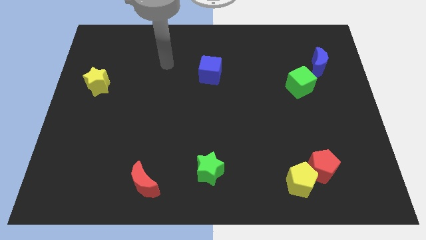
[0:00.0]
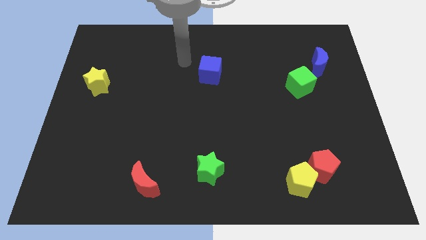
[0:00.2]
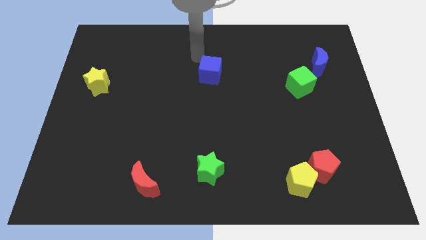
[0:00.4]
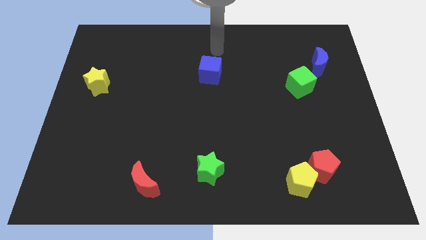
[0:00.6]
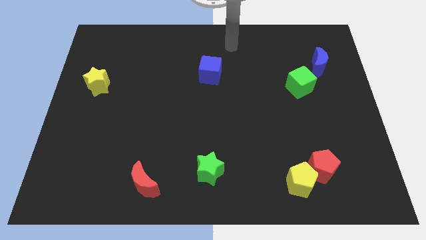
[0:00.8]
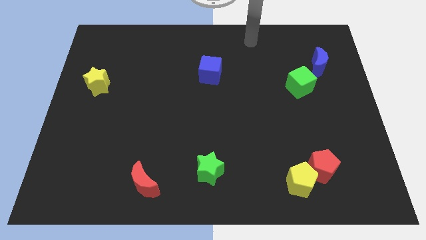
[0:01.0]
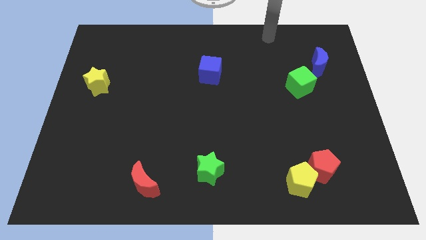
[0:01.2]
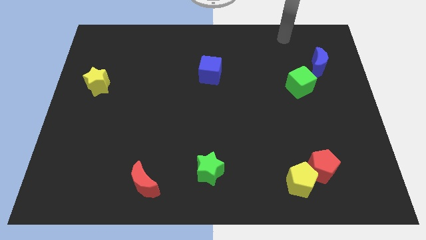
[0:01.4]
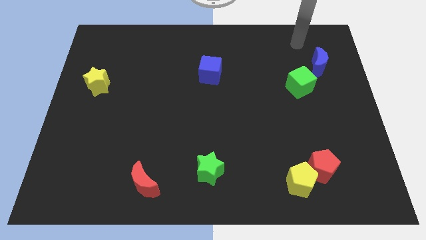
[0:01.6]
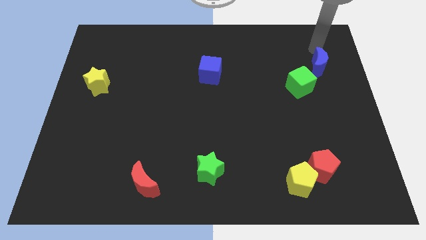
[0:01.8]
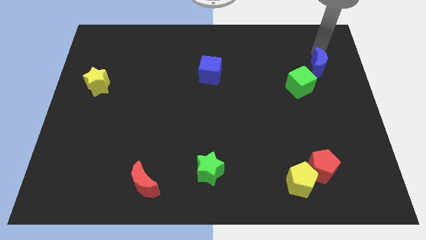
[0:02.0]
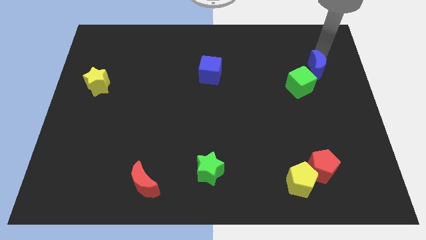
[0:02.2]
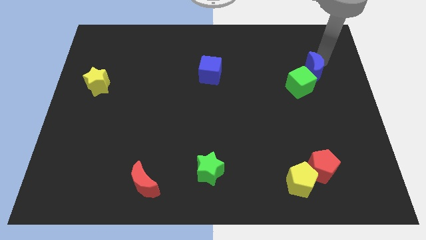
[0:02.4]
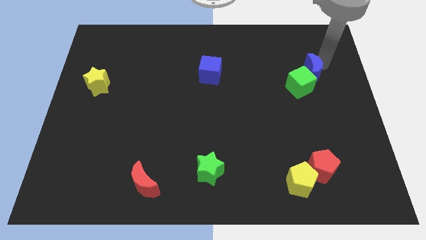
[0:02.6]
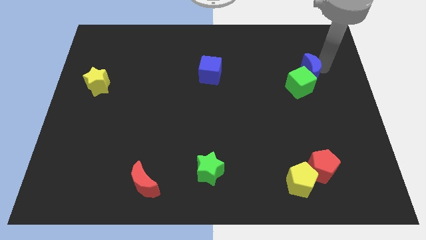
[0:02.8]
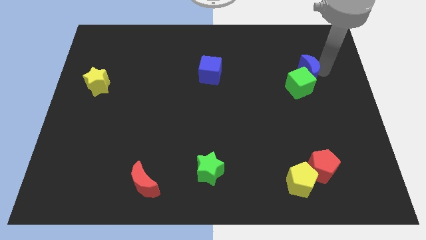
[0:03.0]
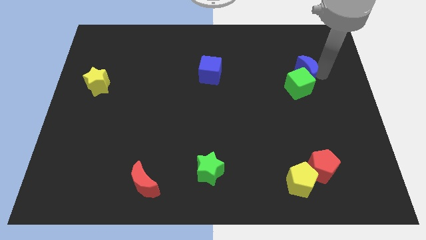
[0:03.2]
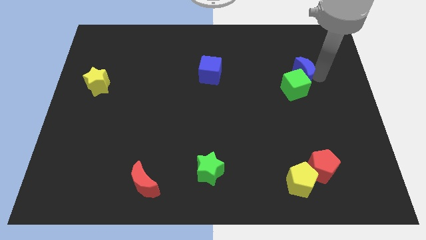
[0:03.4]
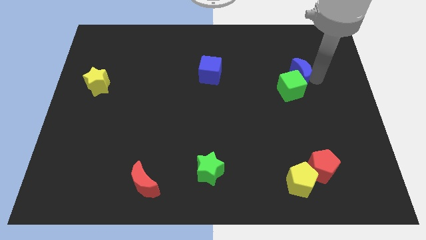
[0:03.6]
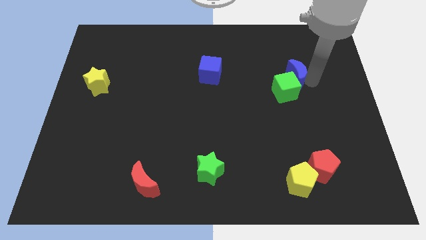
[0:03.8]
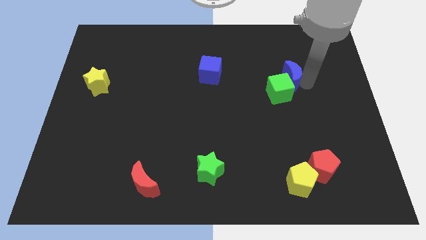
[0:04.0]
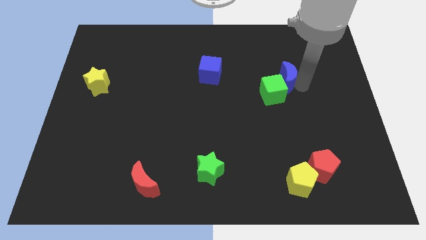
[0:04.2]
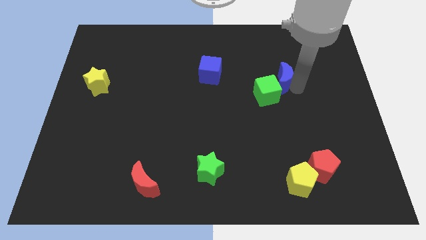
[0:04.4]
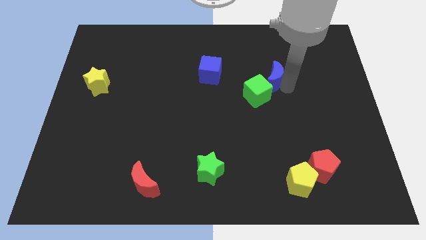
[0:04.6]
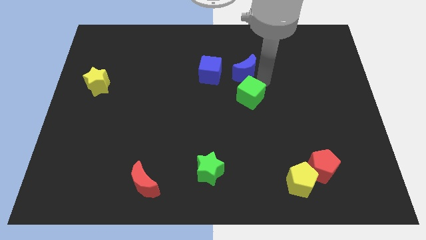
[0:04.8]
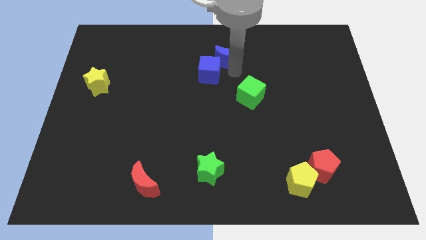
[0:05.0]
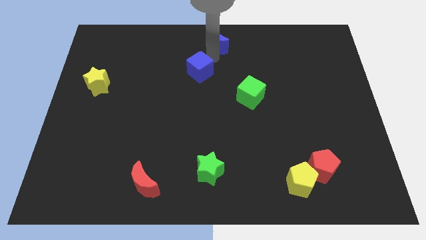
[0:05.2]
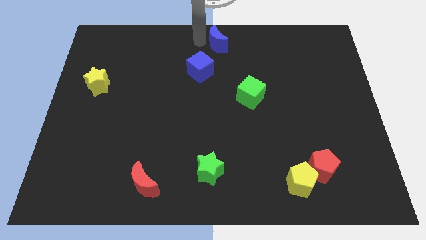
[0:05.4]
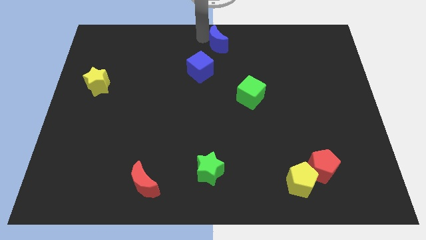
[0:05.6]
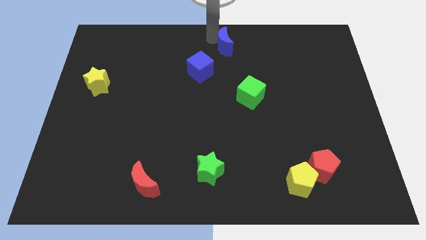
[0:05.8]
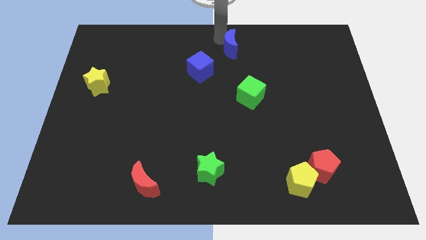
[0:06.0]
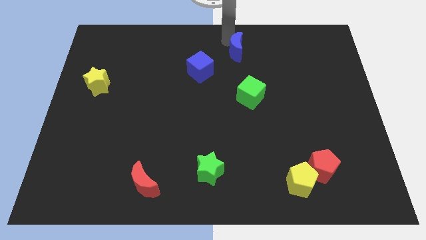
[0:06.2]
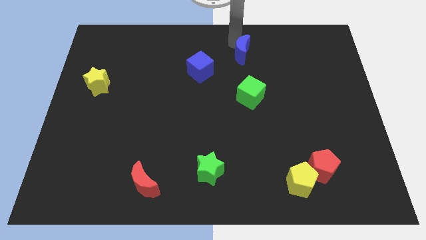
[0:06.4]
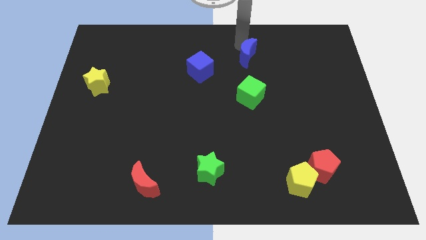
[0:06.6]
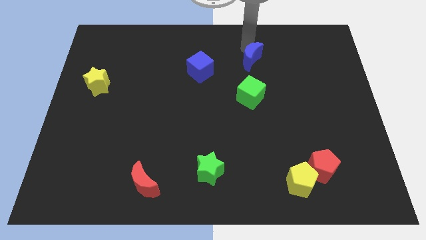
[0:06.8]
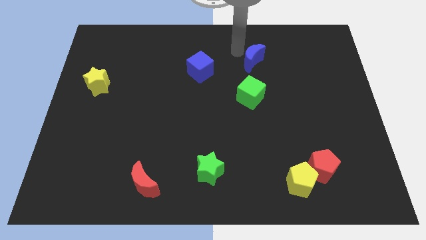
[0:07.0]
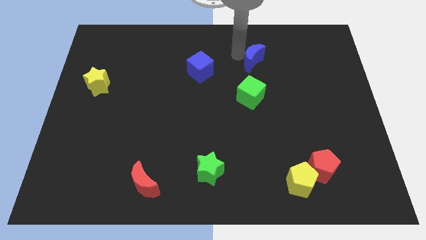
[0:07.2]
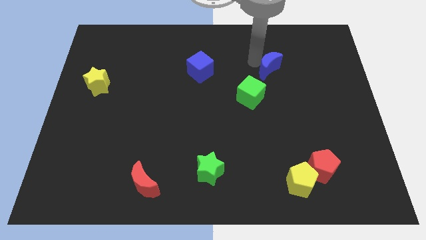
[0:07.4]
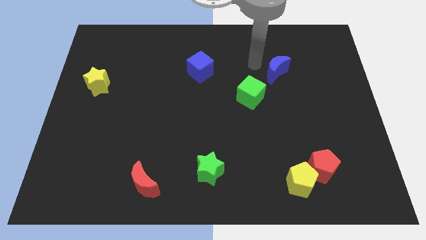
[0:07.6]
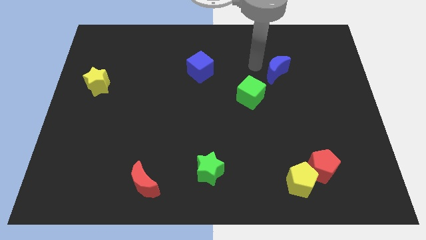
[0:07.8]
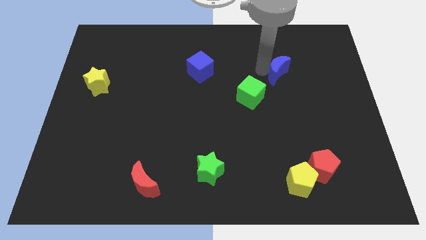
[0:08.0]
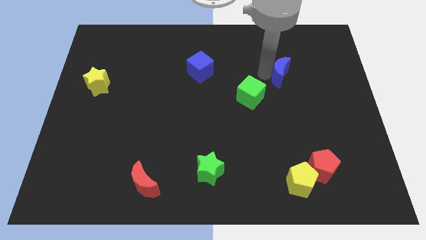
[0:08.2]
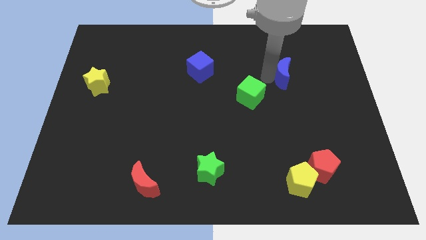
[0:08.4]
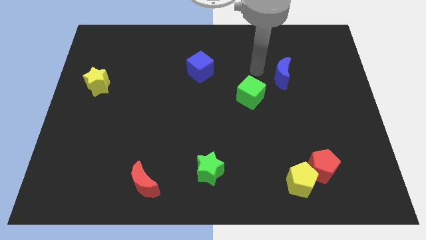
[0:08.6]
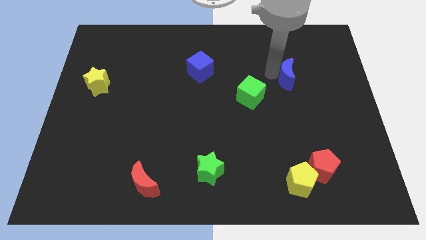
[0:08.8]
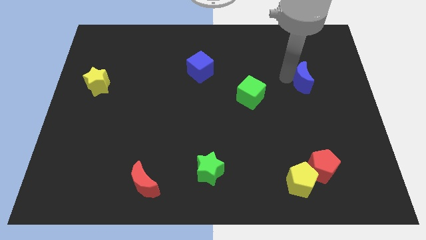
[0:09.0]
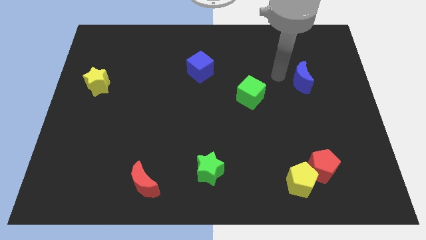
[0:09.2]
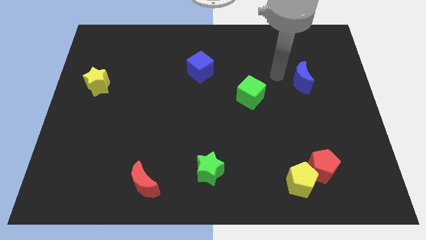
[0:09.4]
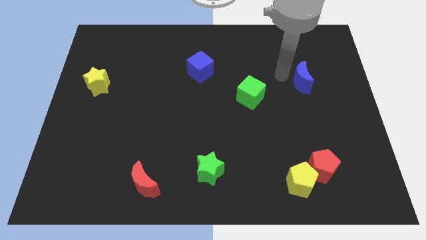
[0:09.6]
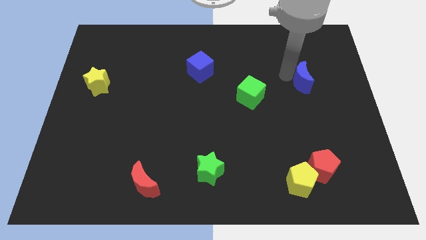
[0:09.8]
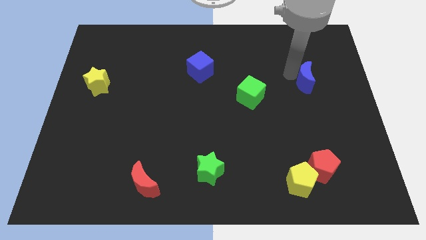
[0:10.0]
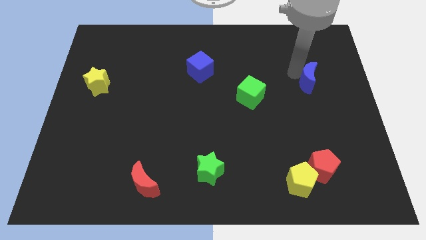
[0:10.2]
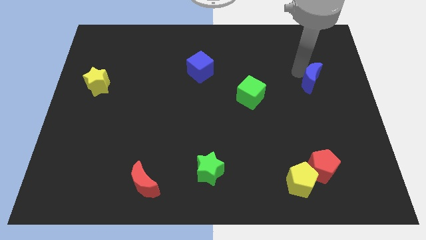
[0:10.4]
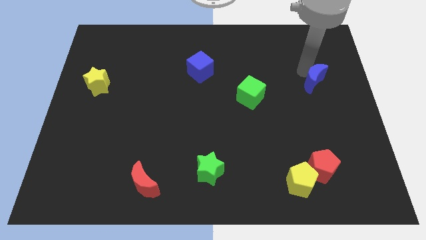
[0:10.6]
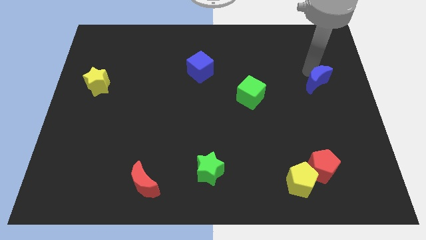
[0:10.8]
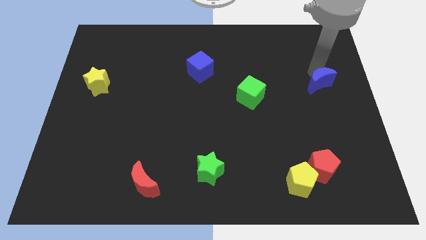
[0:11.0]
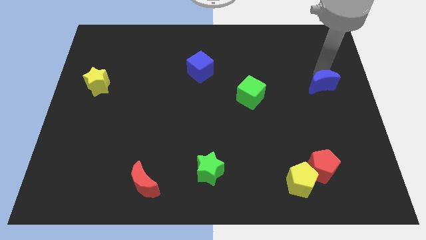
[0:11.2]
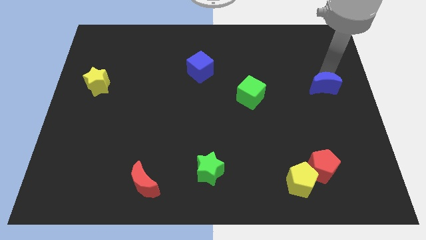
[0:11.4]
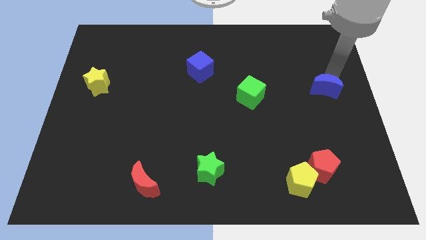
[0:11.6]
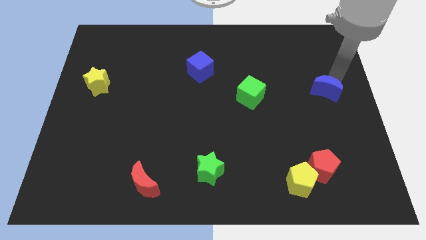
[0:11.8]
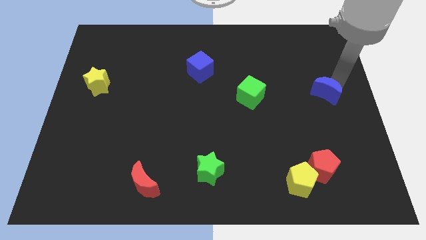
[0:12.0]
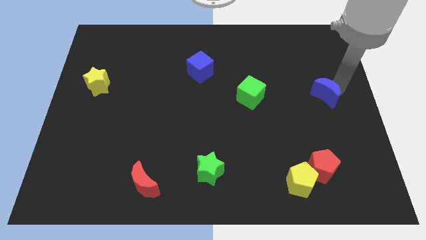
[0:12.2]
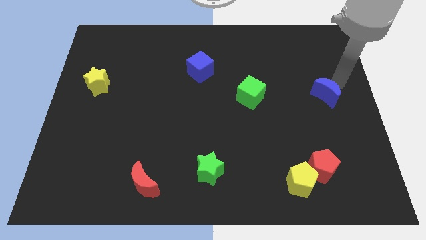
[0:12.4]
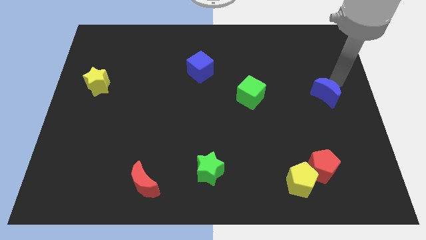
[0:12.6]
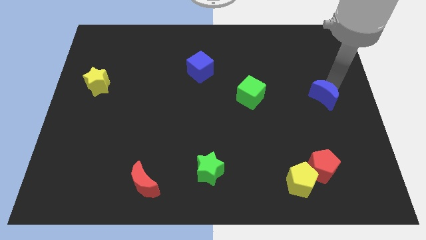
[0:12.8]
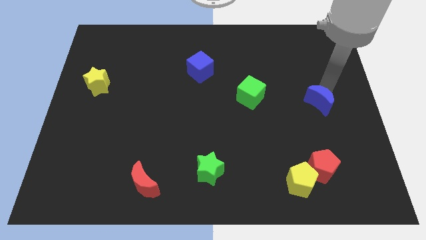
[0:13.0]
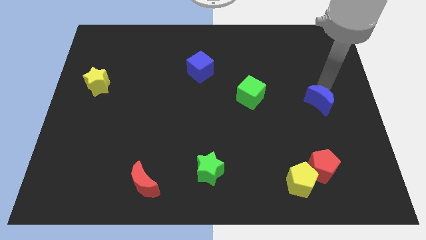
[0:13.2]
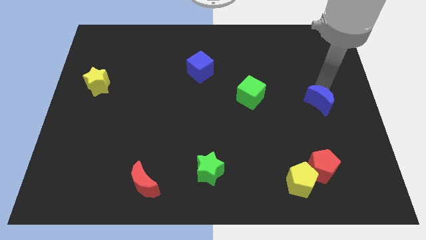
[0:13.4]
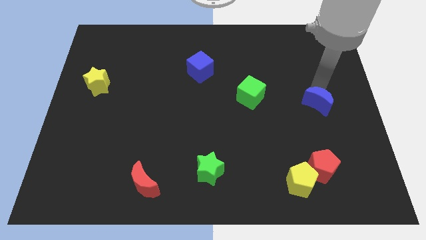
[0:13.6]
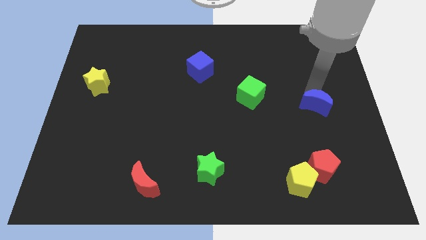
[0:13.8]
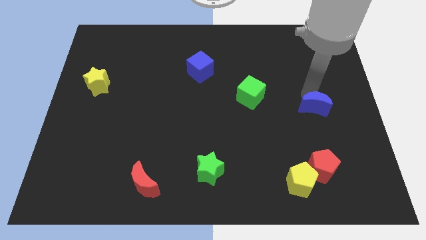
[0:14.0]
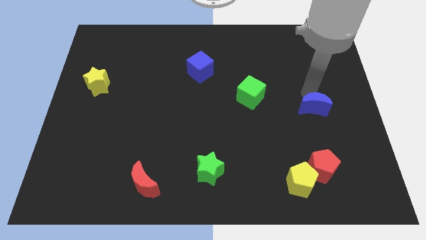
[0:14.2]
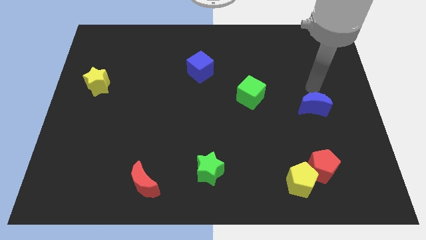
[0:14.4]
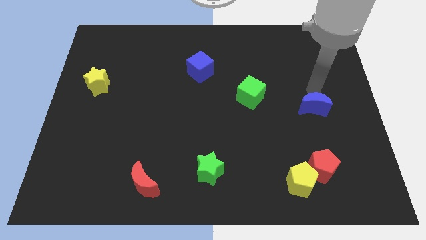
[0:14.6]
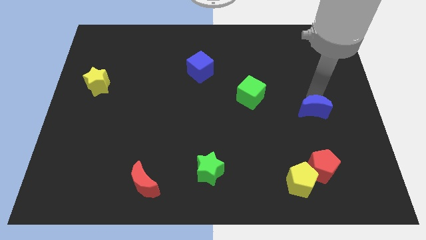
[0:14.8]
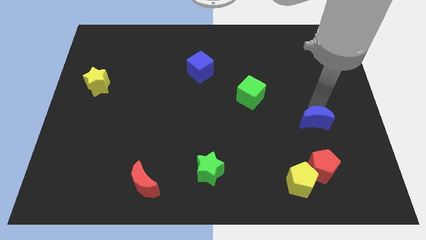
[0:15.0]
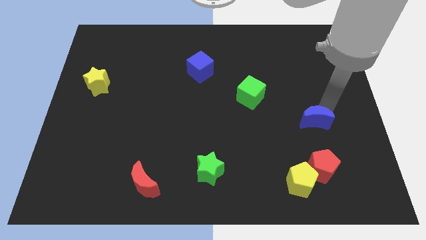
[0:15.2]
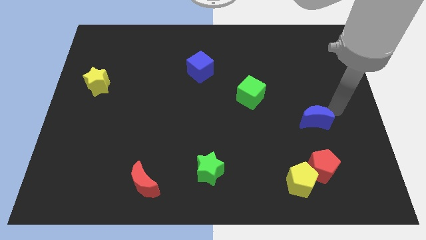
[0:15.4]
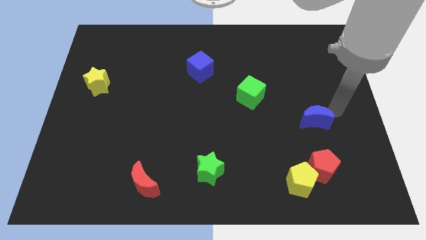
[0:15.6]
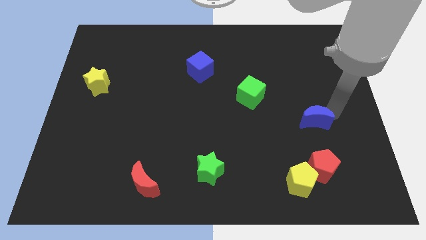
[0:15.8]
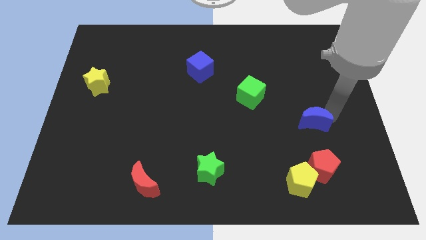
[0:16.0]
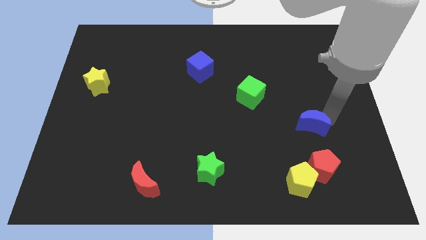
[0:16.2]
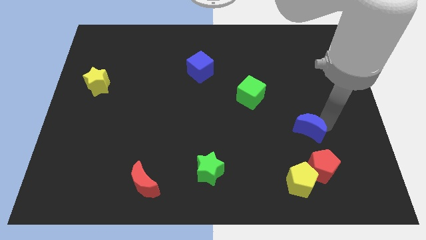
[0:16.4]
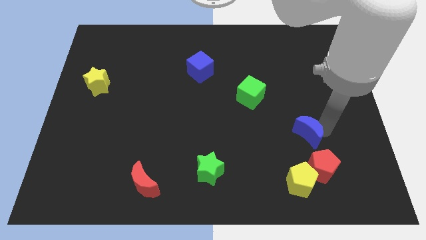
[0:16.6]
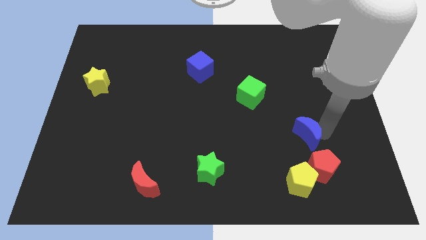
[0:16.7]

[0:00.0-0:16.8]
put the blue moon diagonally up and to the left of the red pentagon
